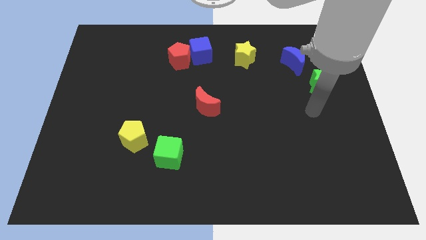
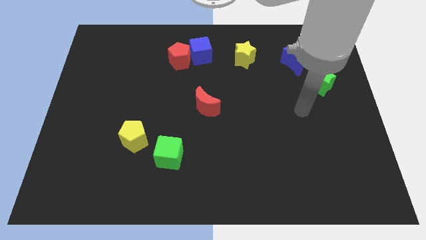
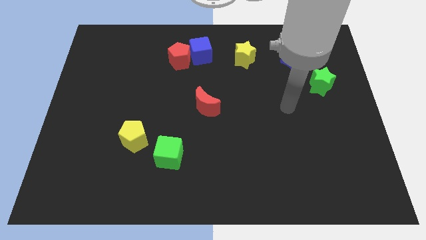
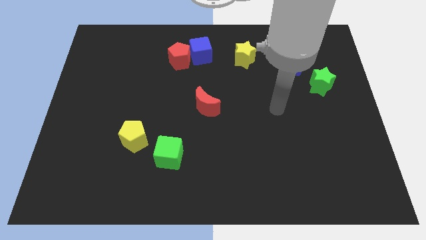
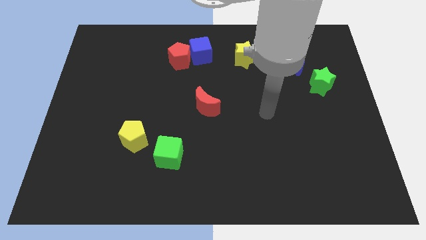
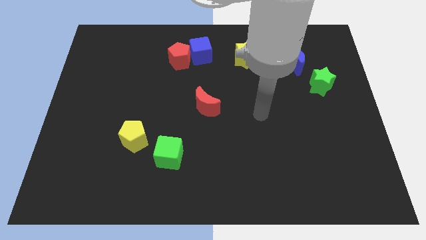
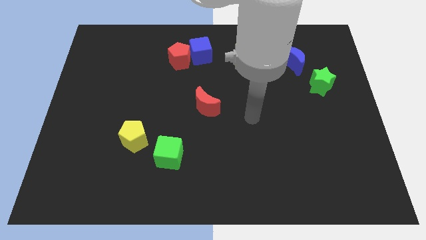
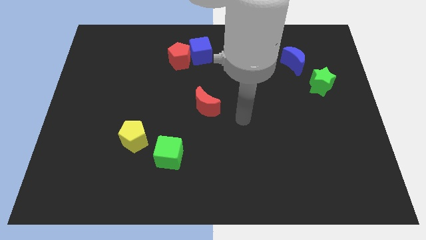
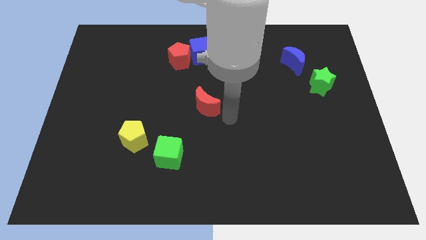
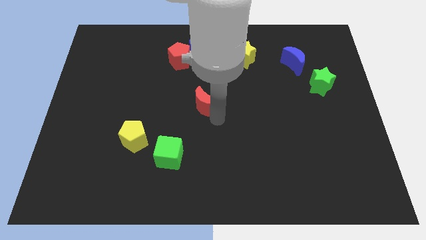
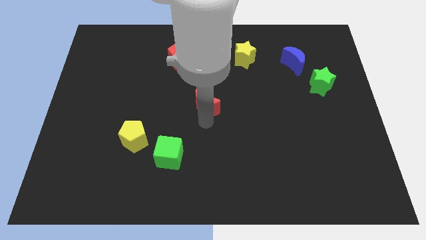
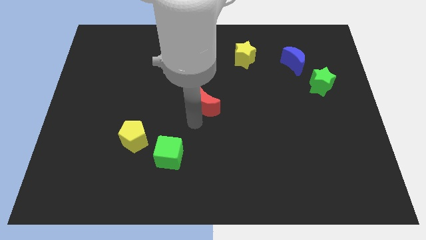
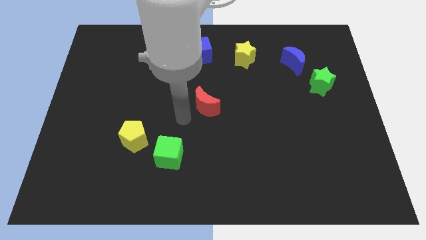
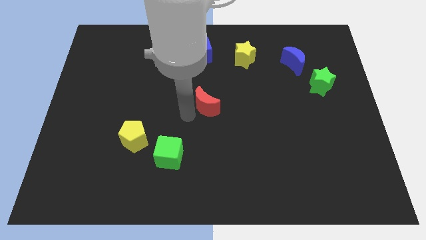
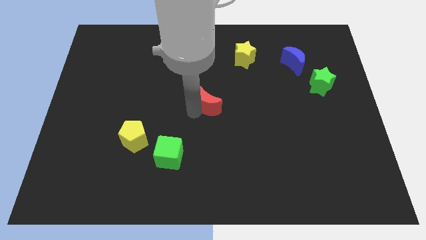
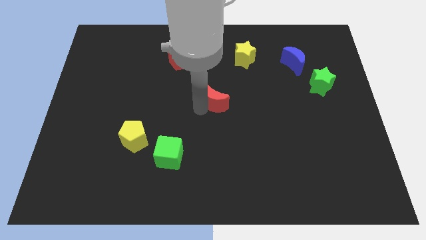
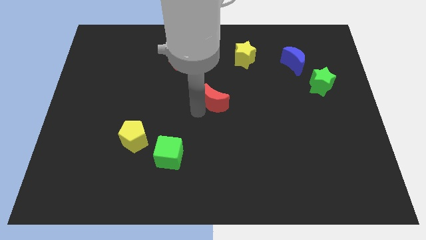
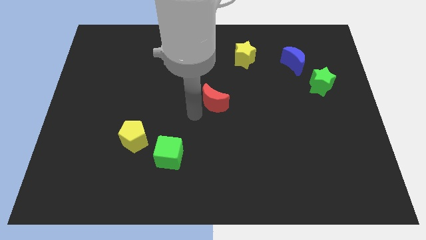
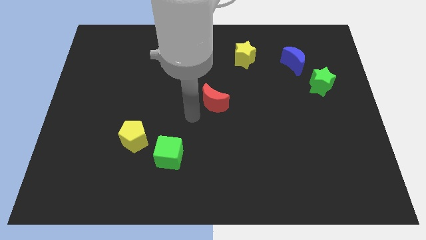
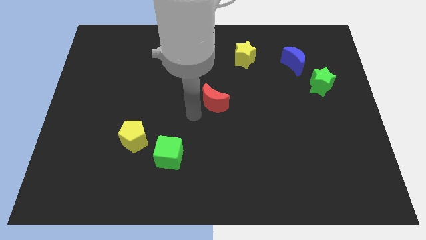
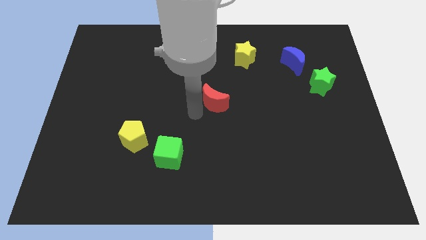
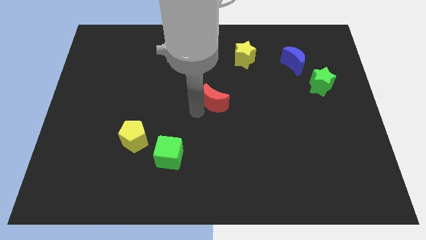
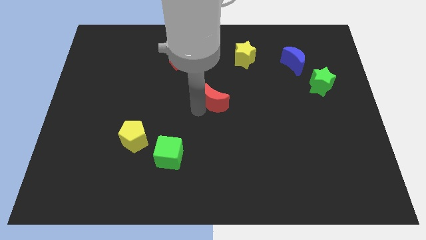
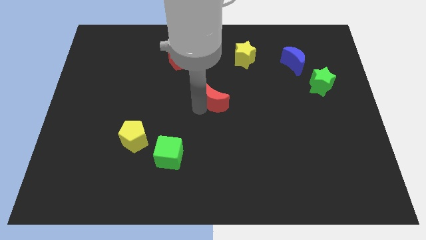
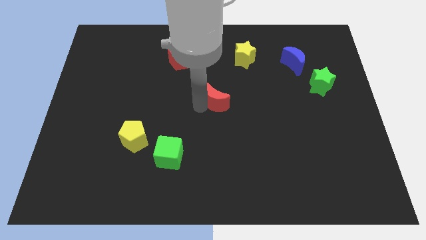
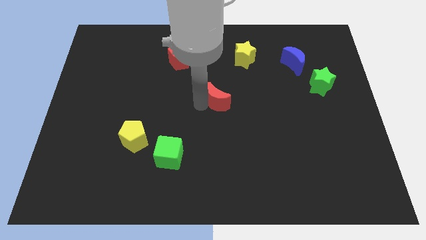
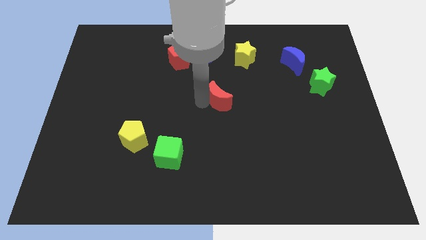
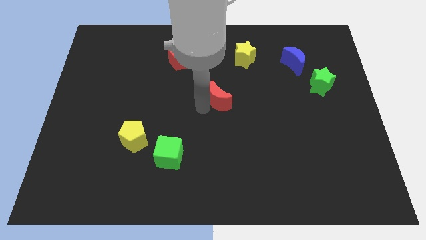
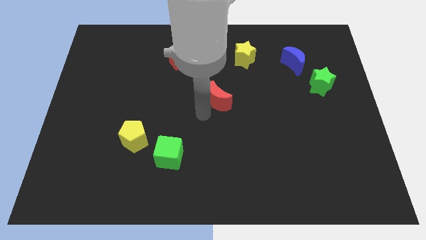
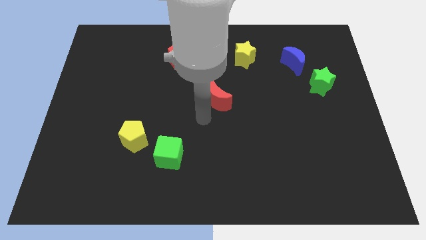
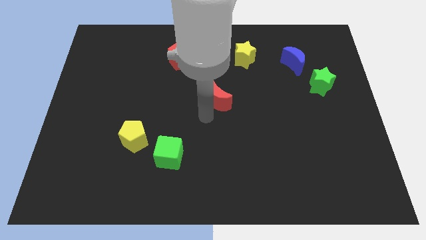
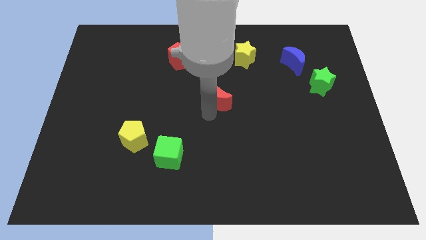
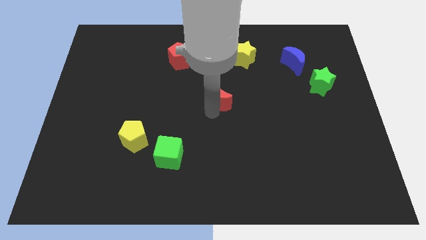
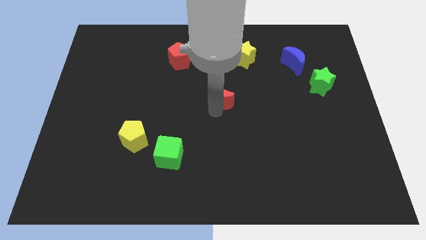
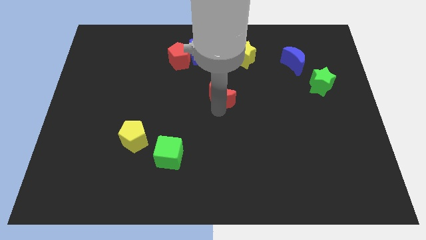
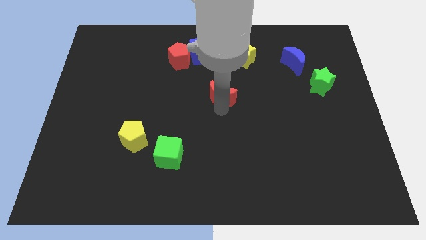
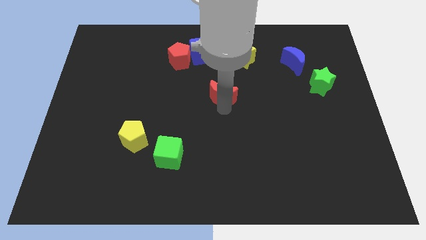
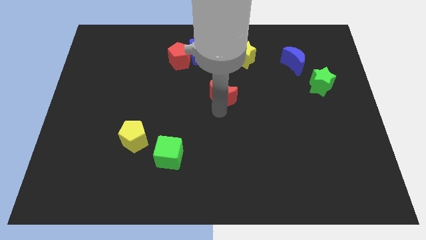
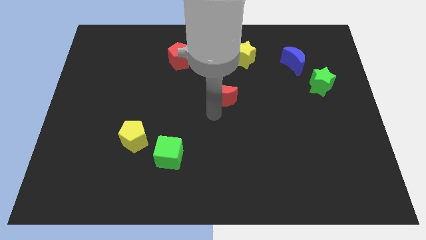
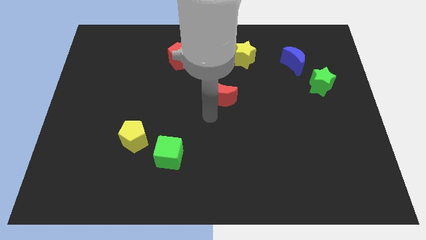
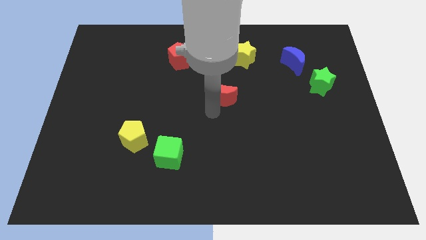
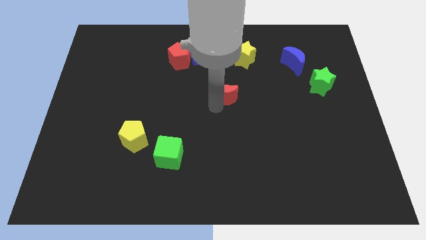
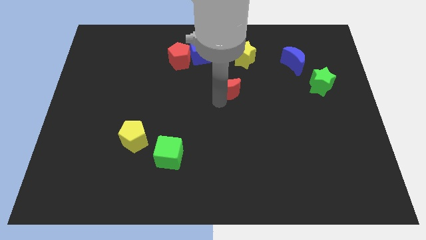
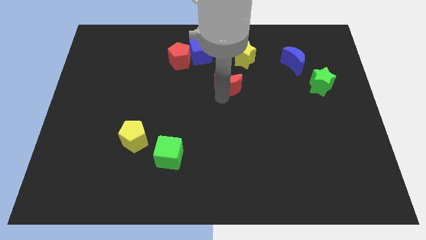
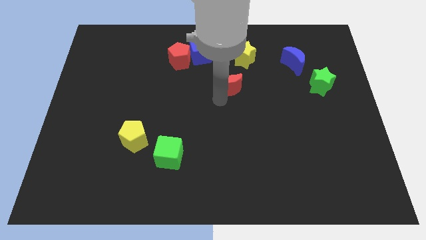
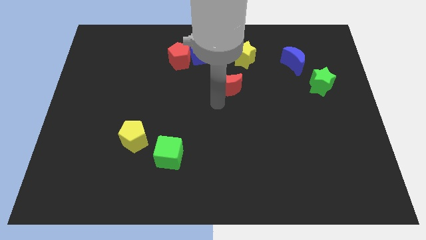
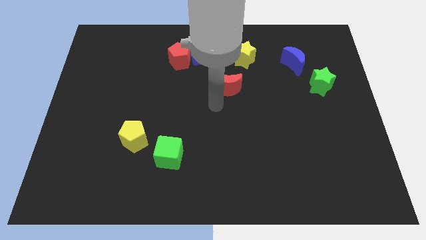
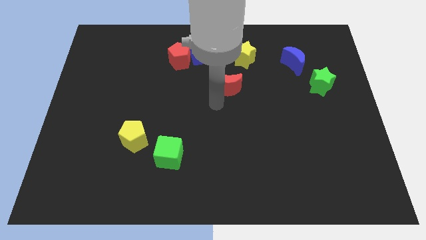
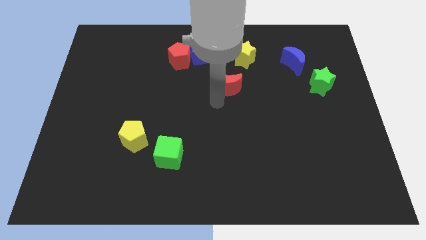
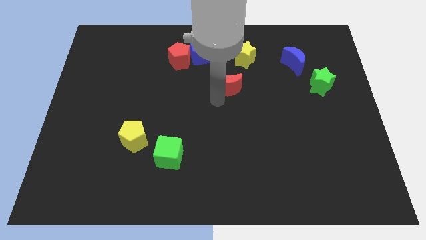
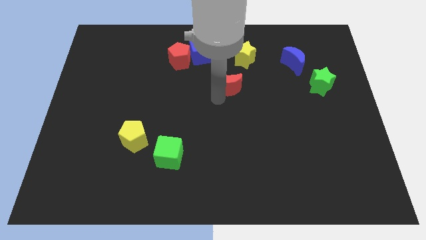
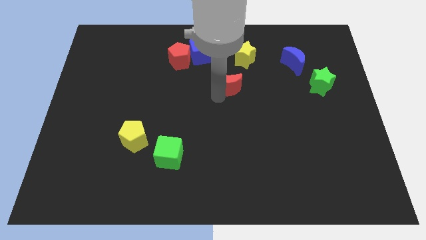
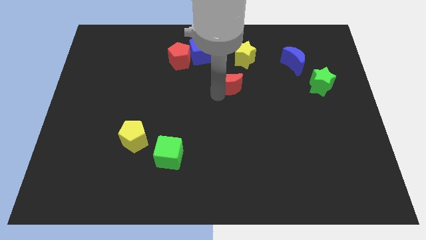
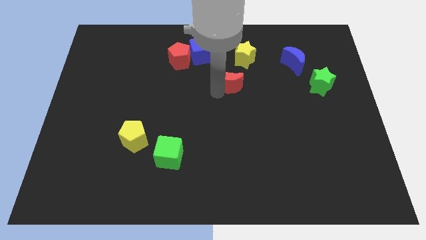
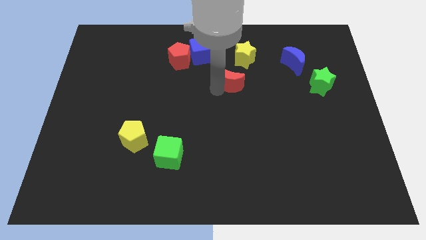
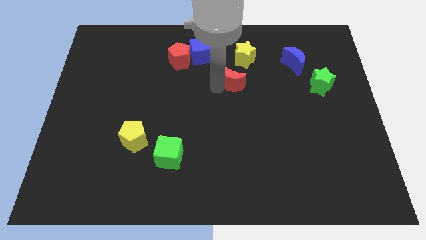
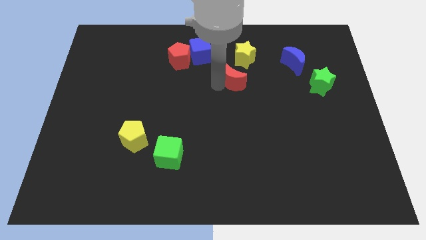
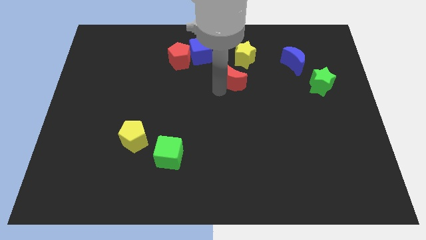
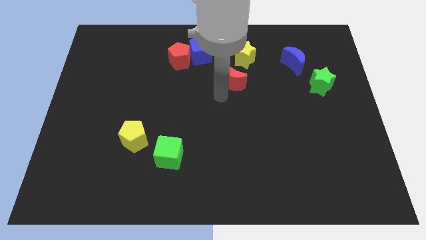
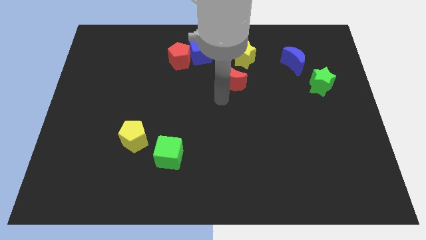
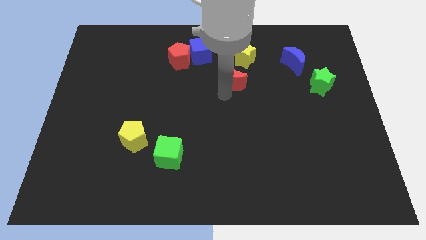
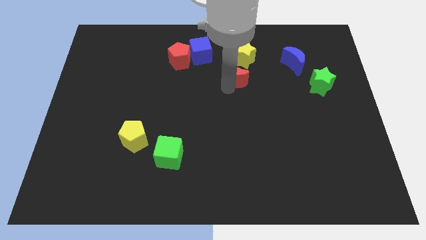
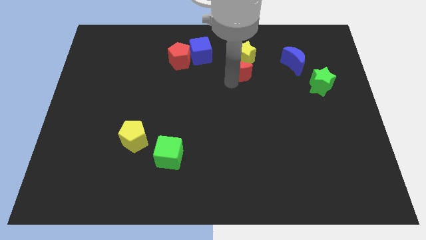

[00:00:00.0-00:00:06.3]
put the red moon close to the yellow star

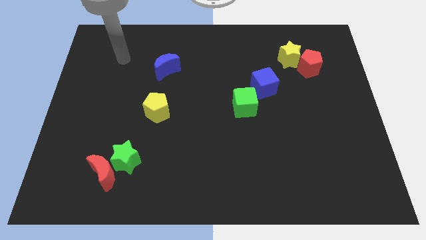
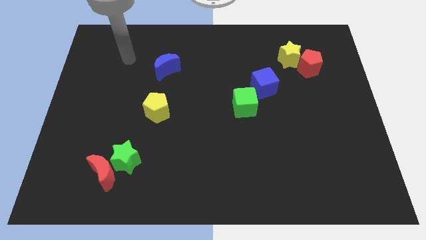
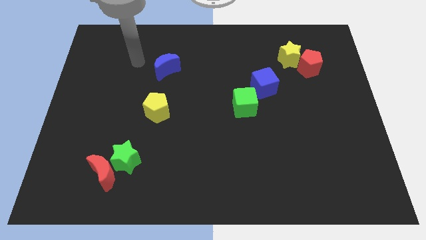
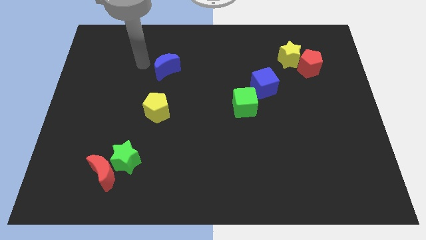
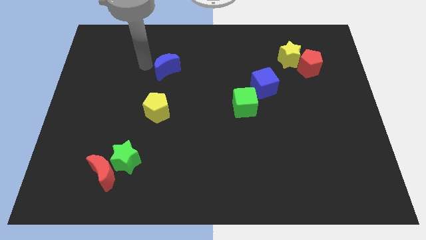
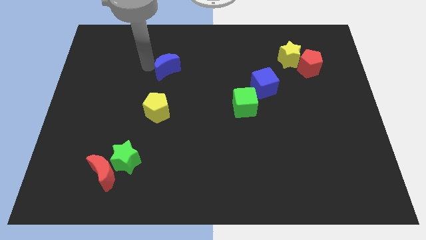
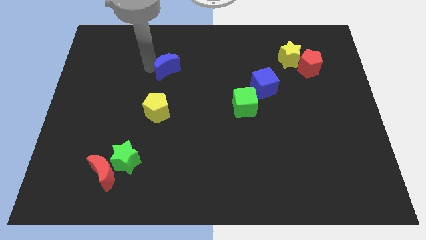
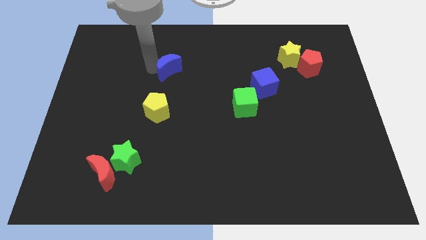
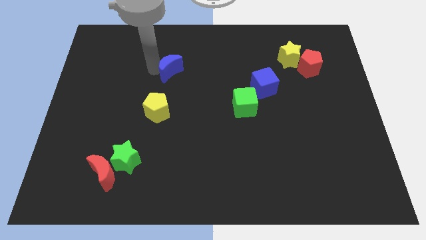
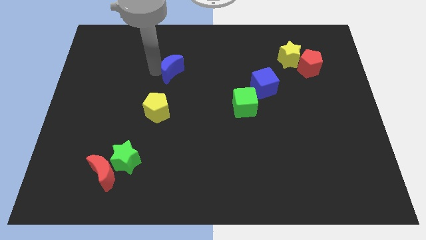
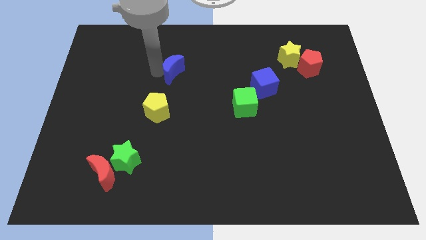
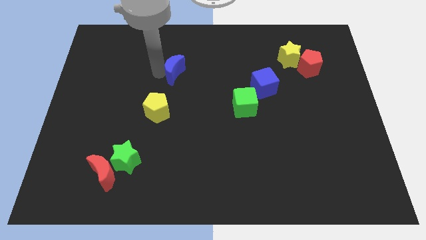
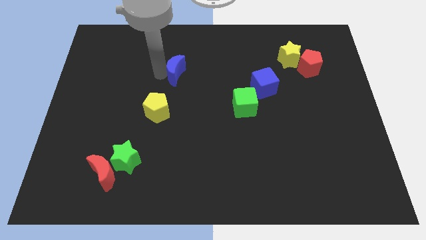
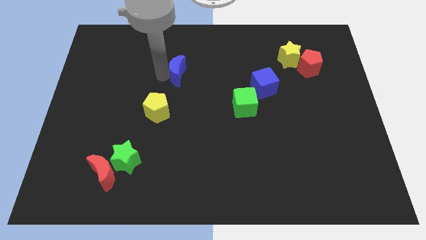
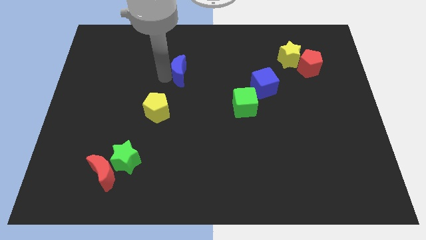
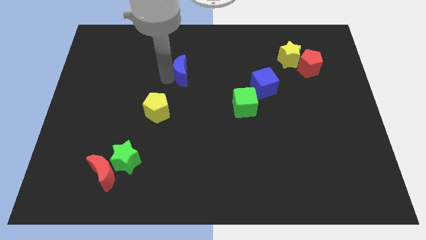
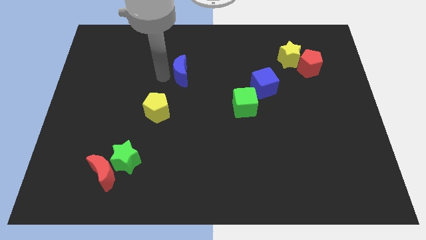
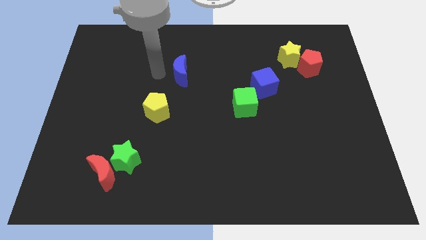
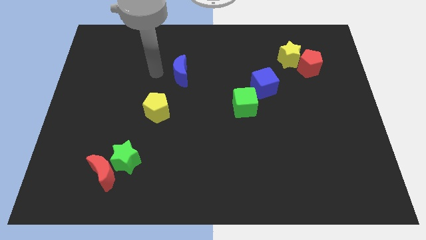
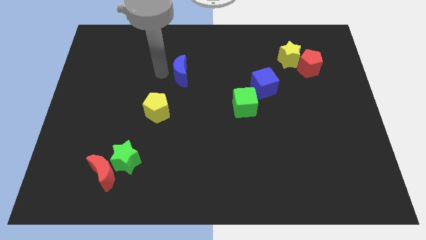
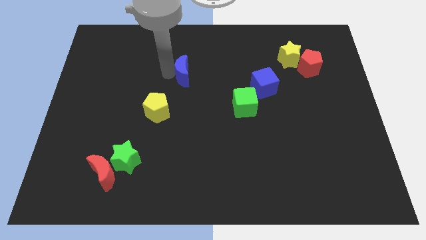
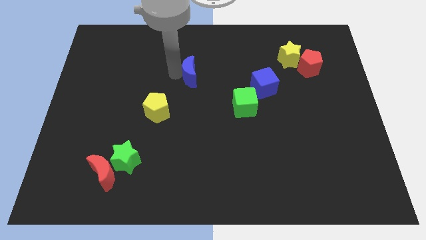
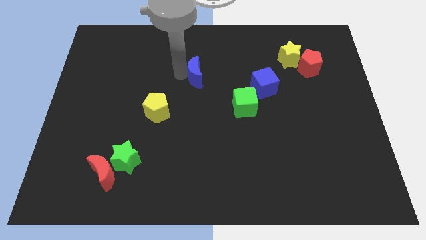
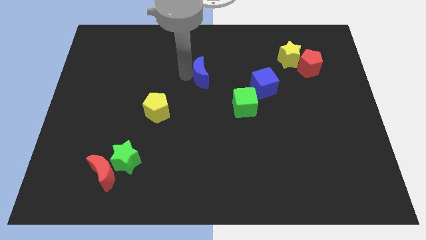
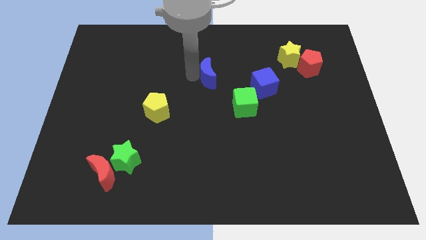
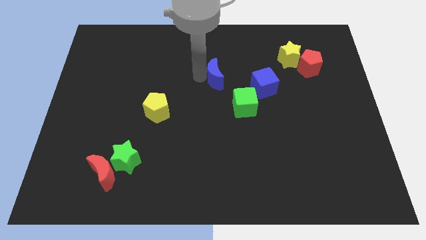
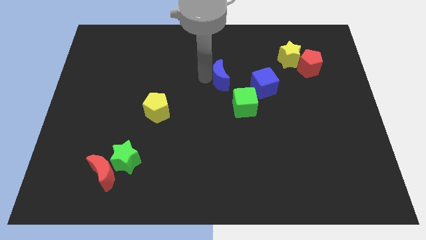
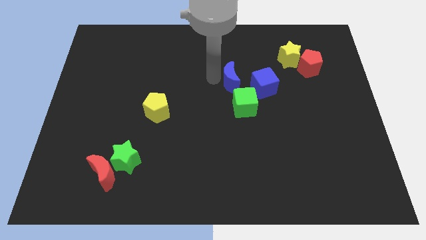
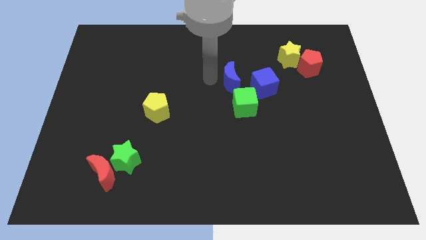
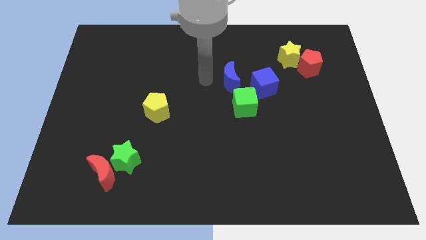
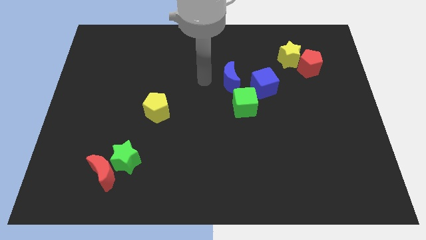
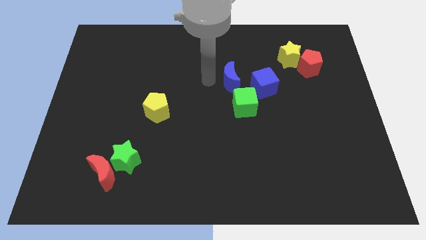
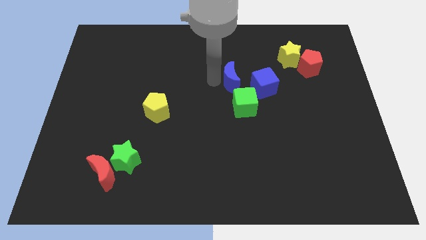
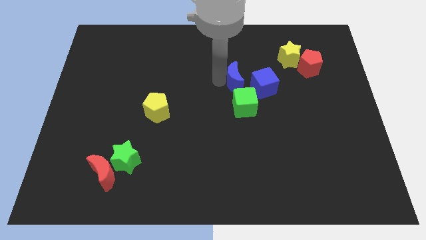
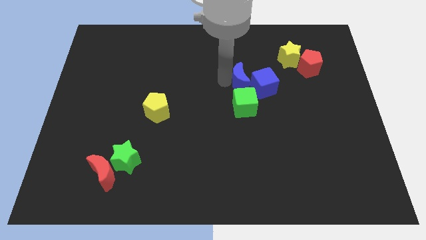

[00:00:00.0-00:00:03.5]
put the blue moon to the blue cube
